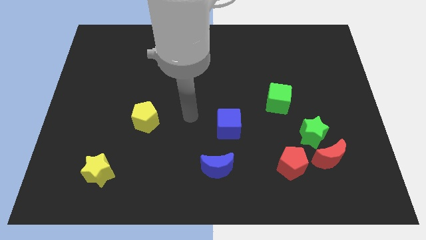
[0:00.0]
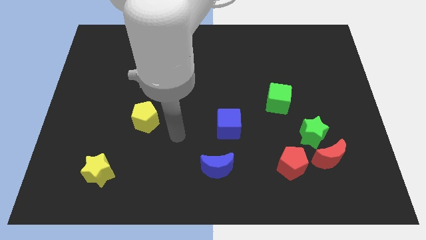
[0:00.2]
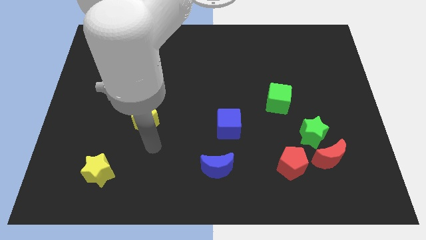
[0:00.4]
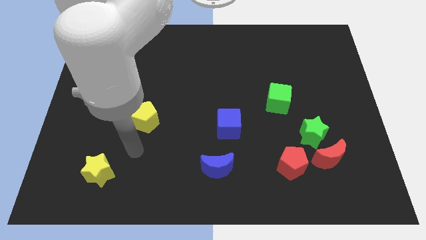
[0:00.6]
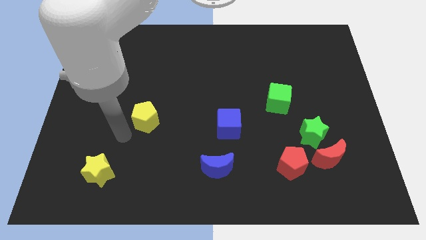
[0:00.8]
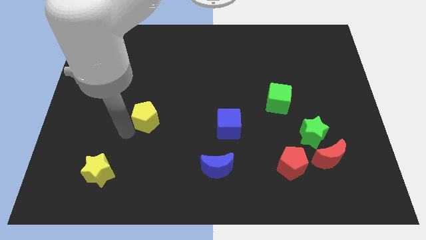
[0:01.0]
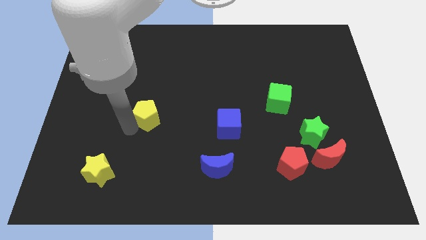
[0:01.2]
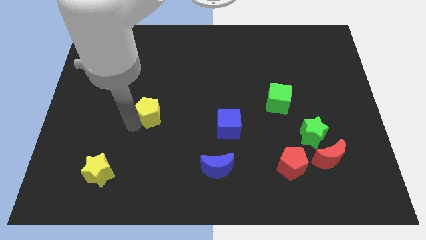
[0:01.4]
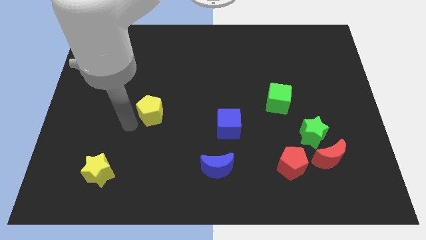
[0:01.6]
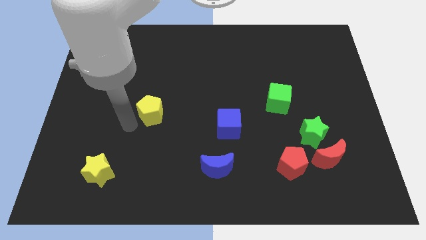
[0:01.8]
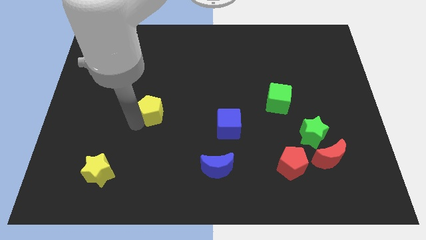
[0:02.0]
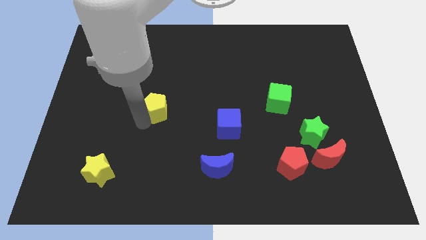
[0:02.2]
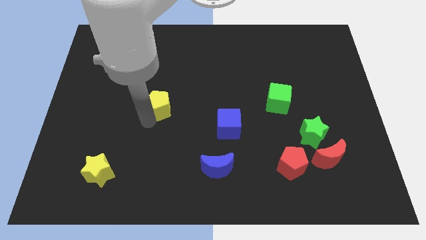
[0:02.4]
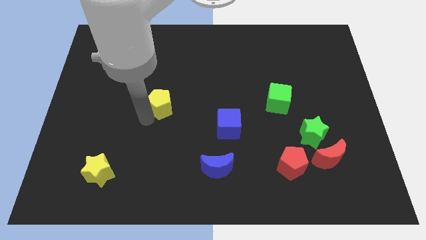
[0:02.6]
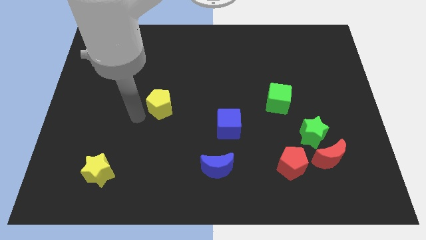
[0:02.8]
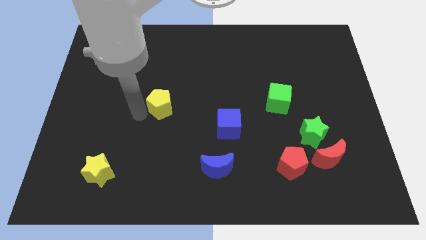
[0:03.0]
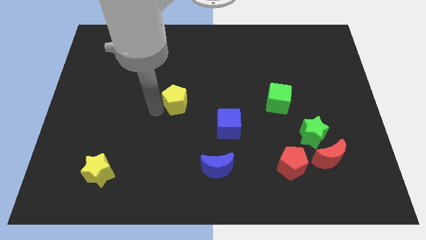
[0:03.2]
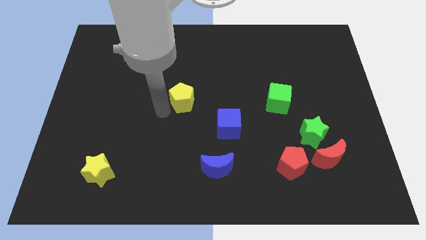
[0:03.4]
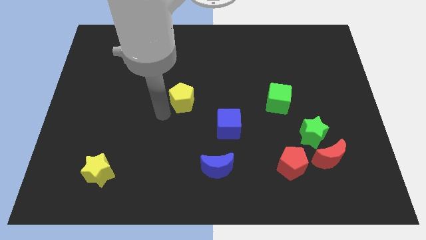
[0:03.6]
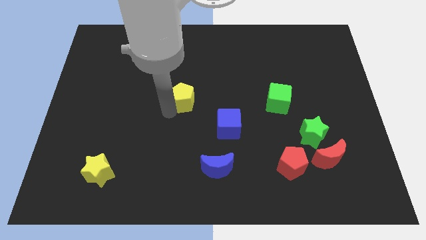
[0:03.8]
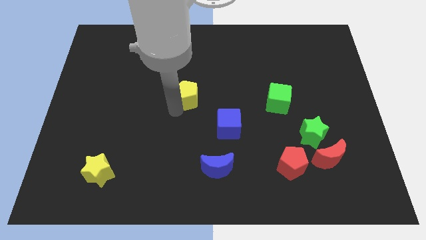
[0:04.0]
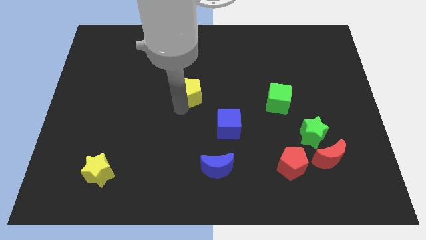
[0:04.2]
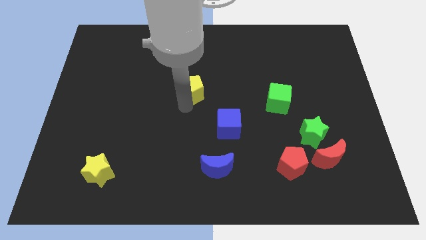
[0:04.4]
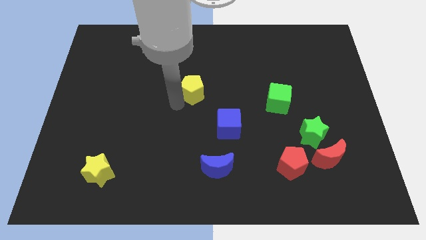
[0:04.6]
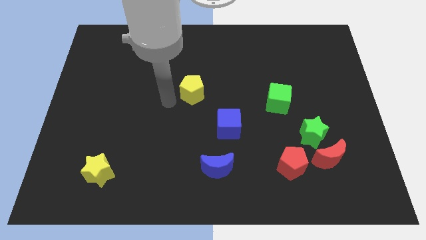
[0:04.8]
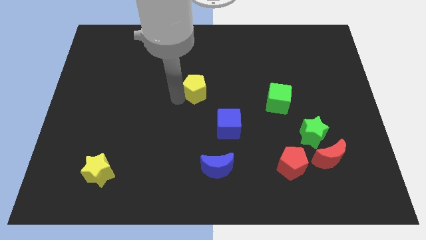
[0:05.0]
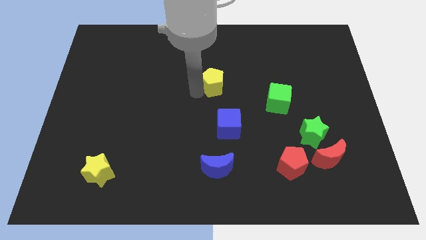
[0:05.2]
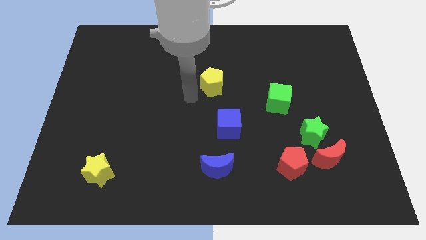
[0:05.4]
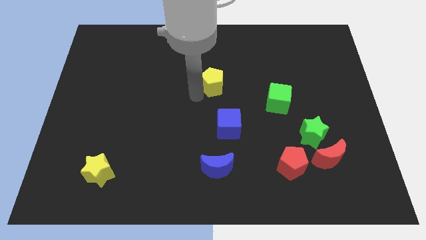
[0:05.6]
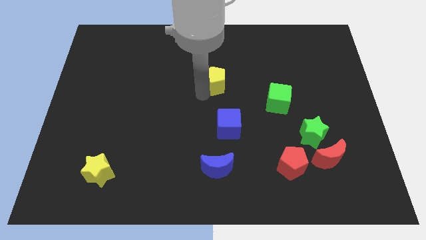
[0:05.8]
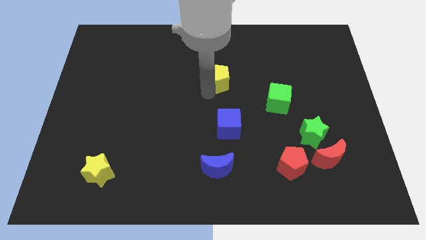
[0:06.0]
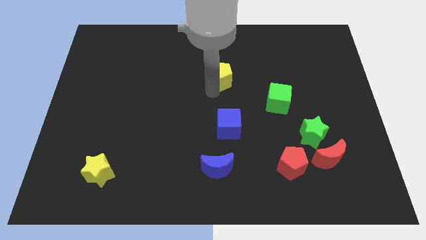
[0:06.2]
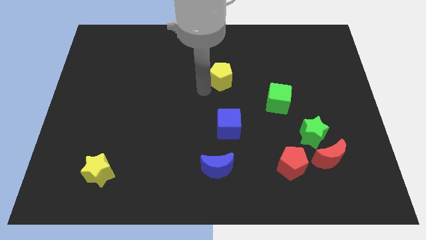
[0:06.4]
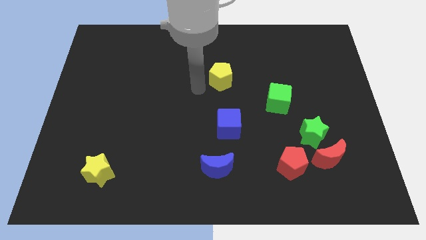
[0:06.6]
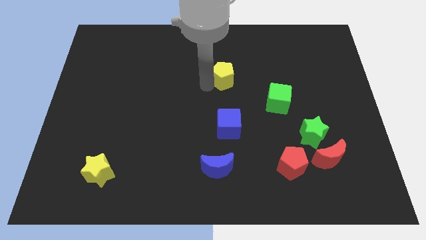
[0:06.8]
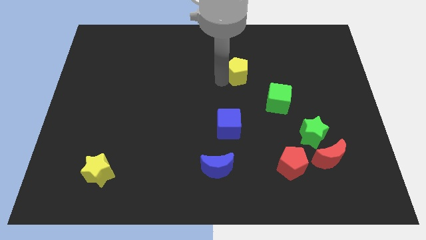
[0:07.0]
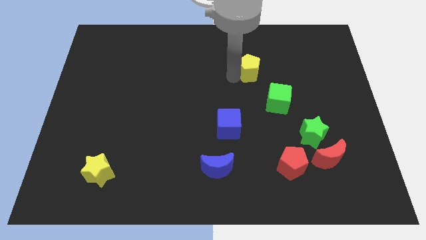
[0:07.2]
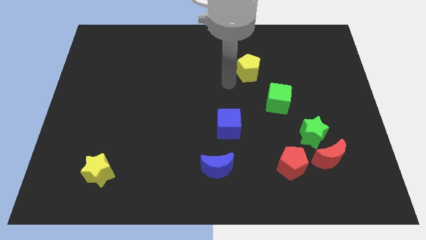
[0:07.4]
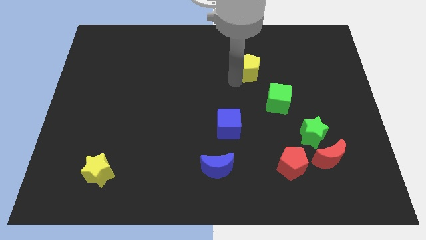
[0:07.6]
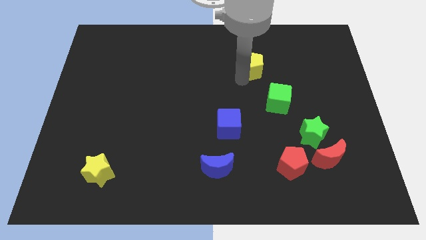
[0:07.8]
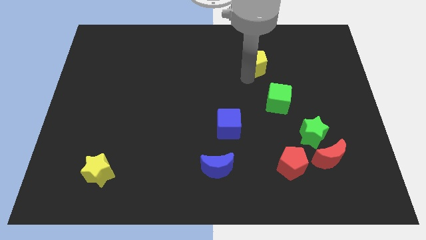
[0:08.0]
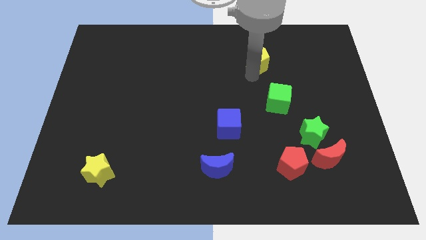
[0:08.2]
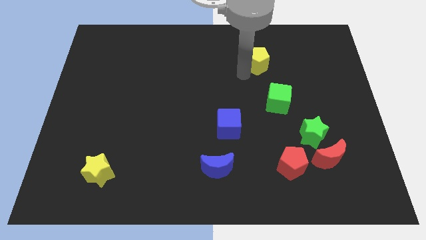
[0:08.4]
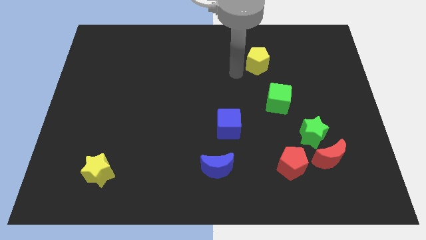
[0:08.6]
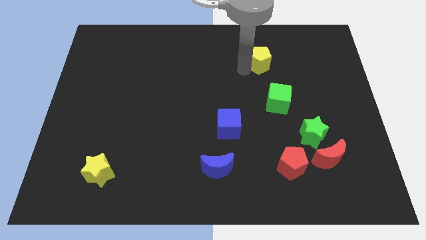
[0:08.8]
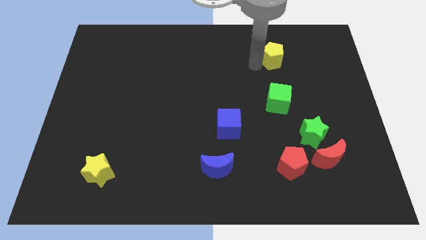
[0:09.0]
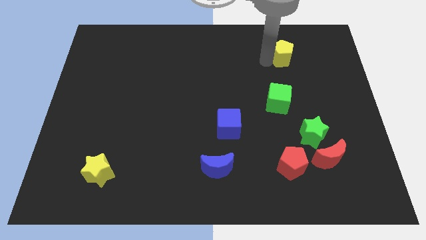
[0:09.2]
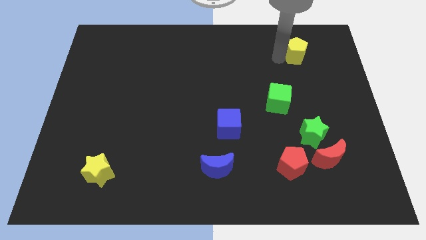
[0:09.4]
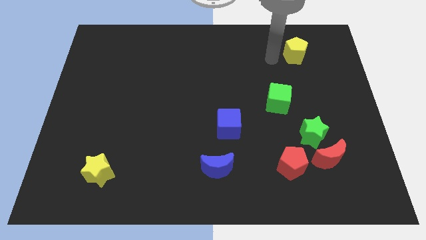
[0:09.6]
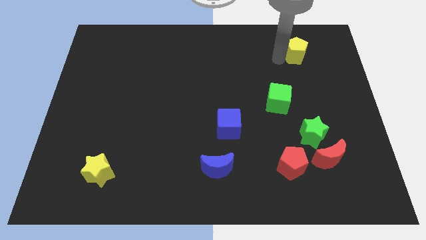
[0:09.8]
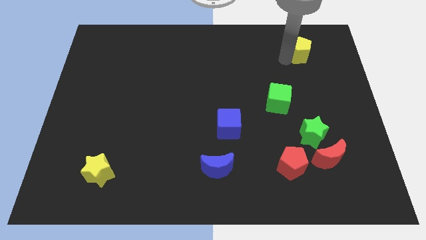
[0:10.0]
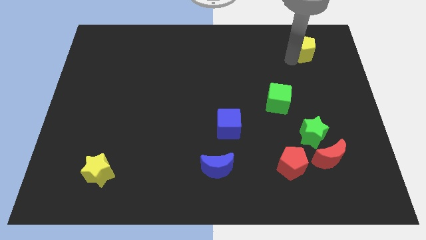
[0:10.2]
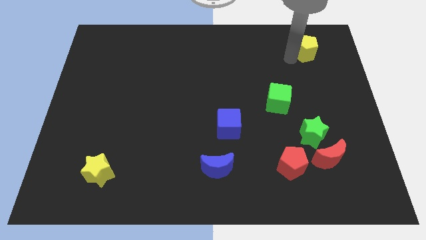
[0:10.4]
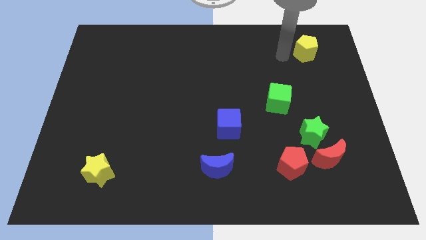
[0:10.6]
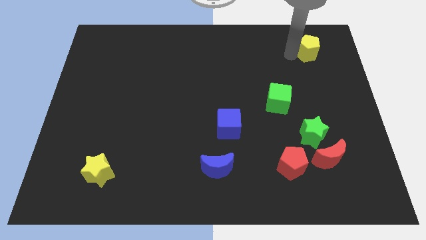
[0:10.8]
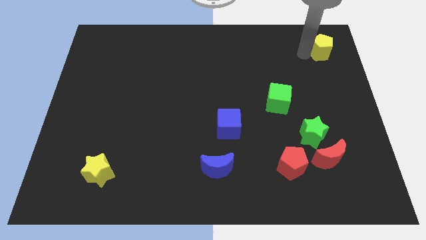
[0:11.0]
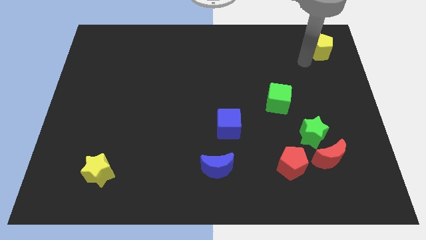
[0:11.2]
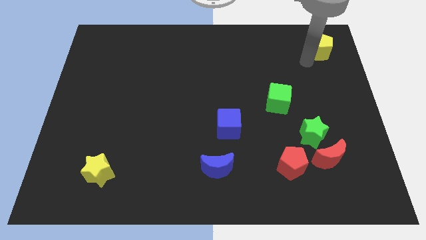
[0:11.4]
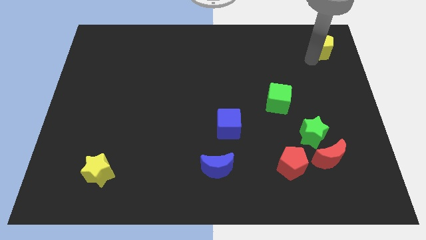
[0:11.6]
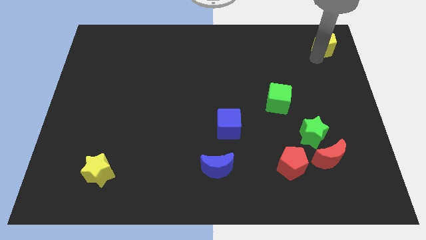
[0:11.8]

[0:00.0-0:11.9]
put the yellow pentagon to the top right

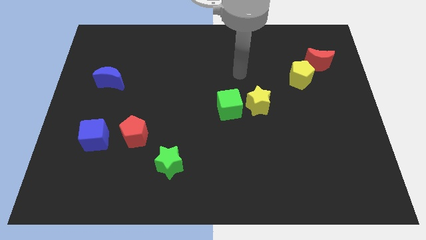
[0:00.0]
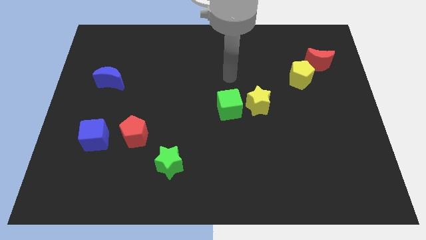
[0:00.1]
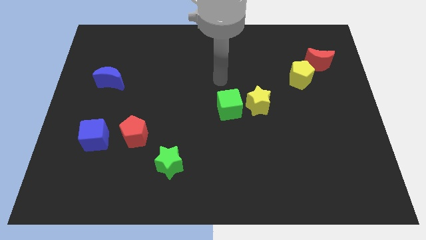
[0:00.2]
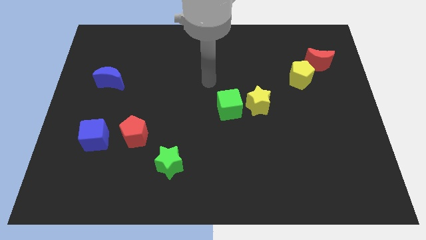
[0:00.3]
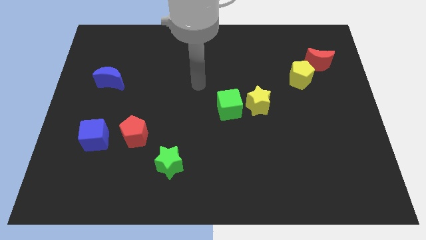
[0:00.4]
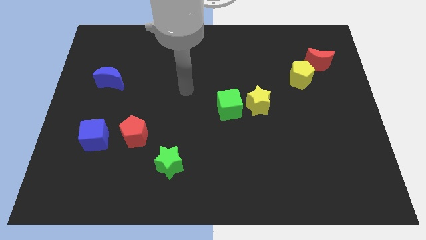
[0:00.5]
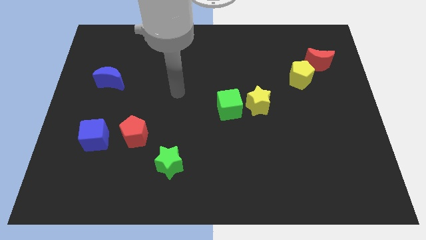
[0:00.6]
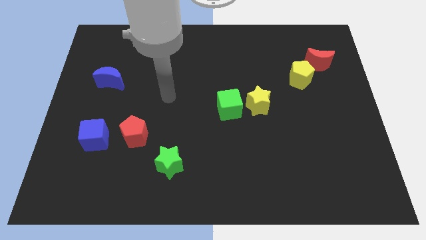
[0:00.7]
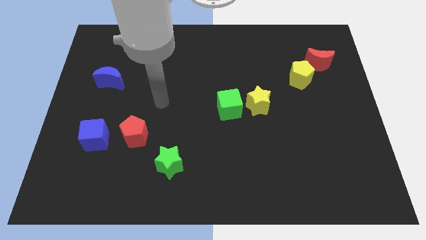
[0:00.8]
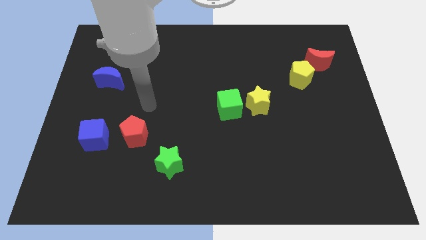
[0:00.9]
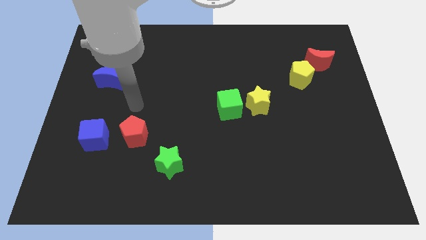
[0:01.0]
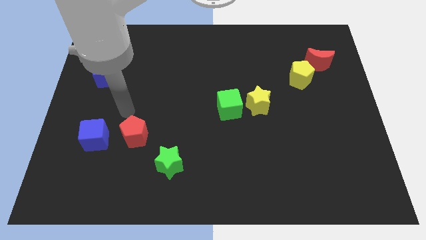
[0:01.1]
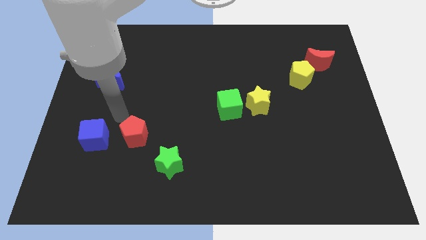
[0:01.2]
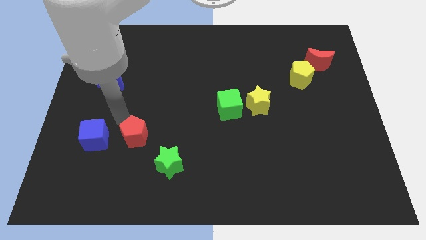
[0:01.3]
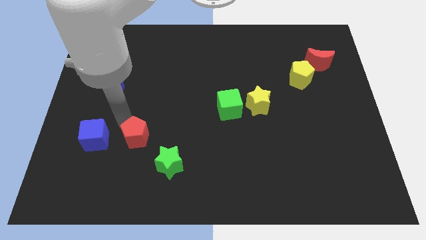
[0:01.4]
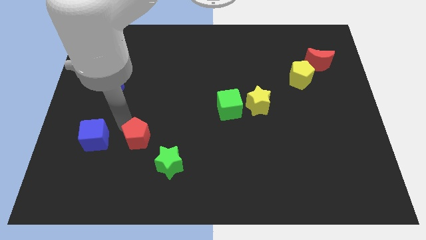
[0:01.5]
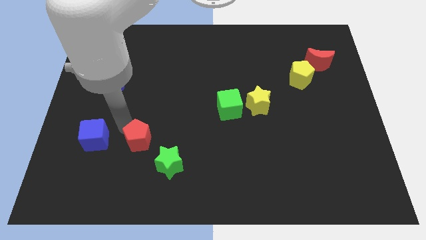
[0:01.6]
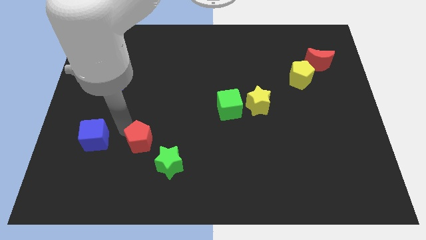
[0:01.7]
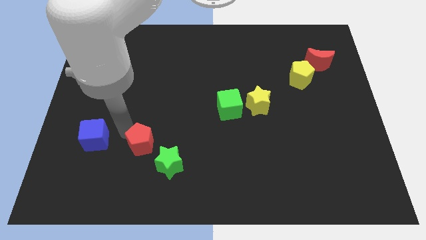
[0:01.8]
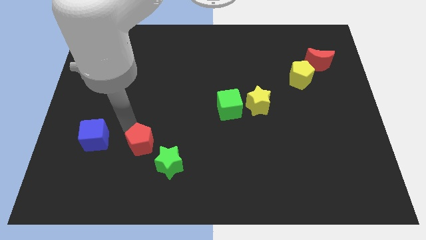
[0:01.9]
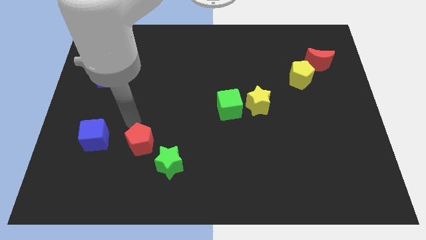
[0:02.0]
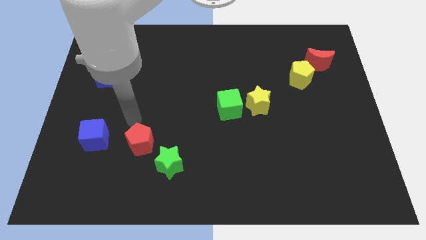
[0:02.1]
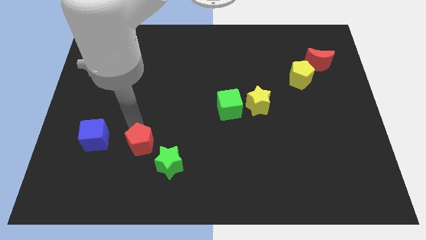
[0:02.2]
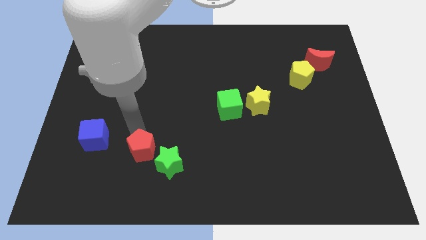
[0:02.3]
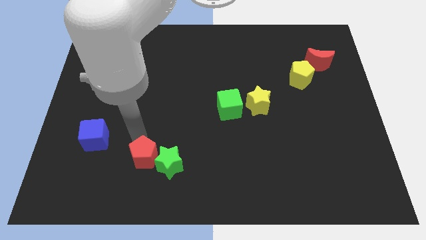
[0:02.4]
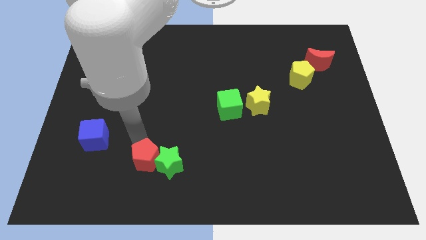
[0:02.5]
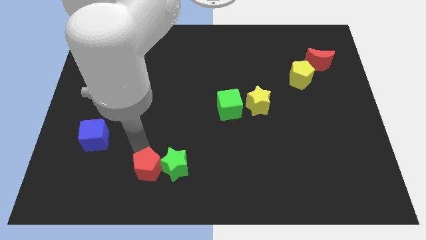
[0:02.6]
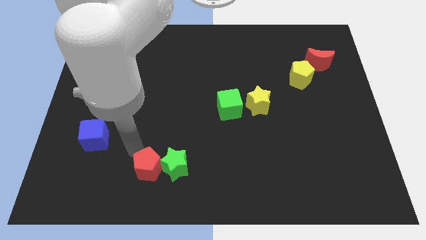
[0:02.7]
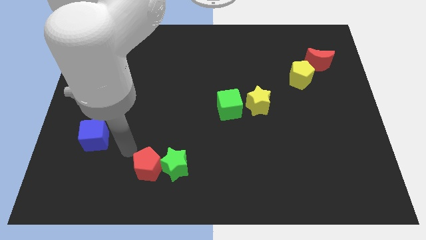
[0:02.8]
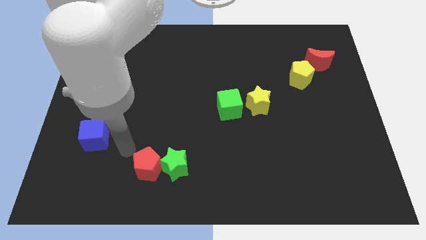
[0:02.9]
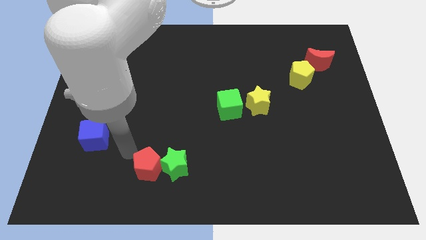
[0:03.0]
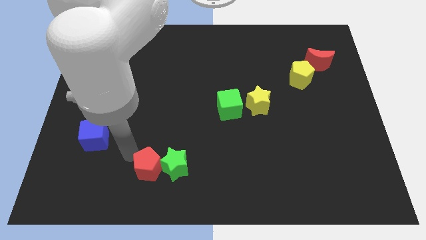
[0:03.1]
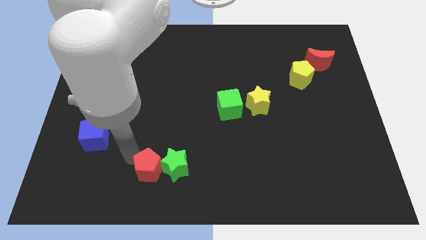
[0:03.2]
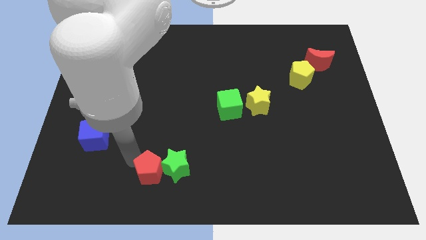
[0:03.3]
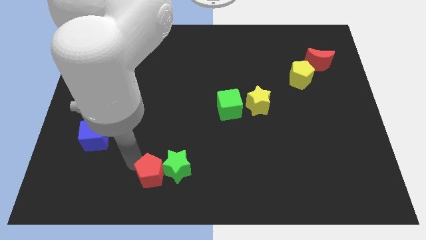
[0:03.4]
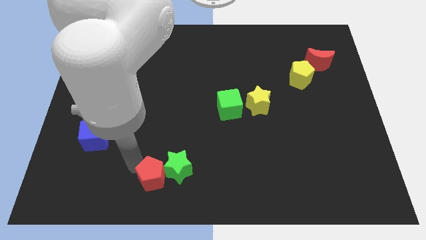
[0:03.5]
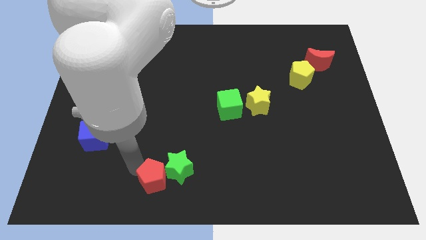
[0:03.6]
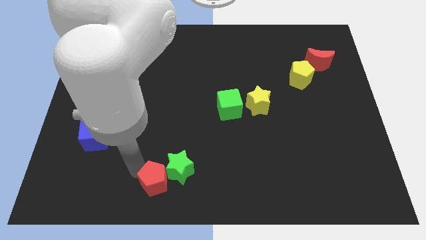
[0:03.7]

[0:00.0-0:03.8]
move the red pentagon to the bottom
